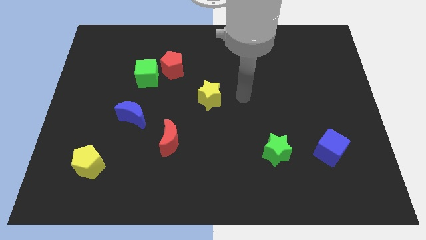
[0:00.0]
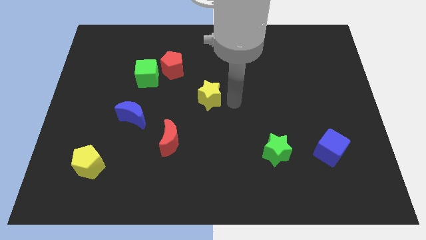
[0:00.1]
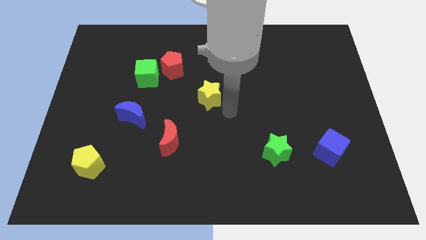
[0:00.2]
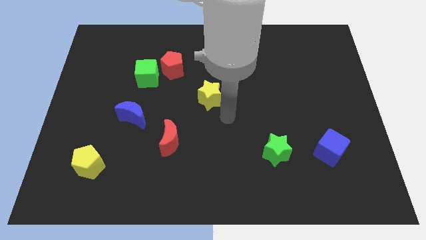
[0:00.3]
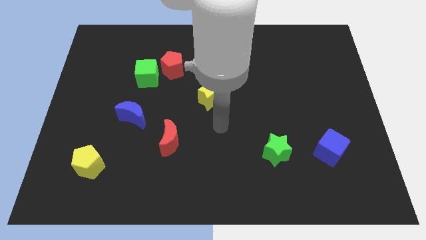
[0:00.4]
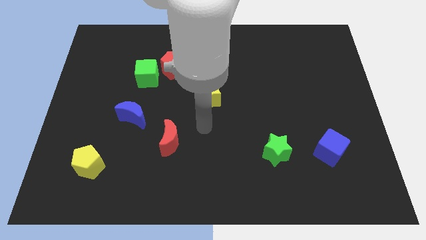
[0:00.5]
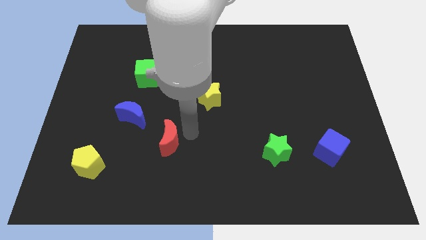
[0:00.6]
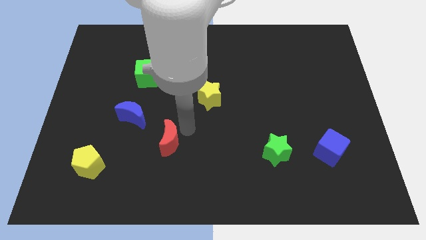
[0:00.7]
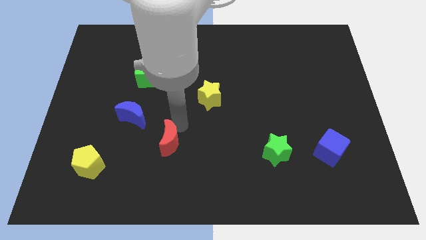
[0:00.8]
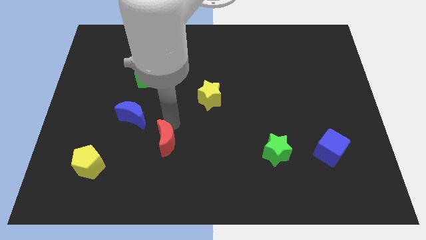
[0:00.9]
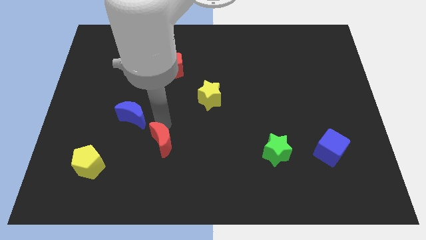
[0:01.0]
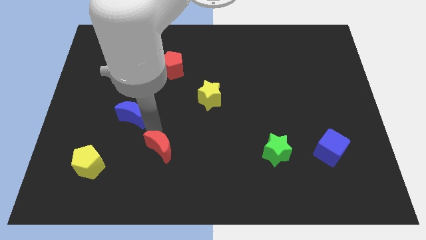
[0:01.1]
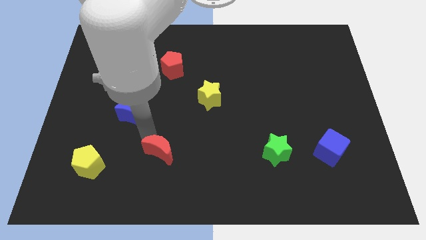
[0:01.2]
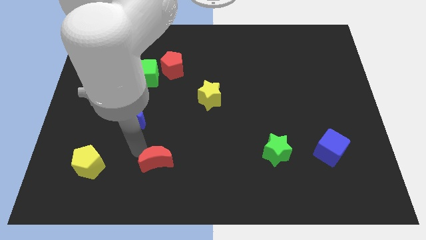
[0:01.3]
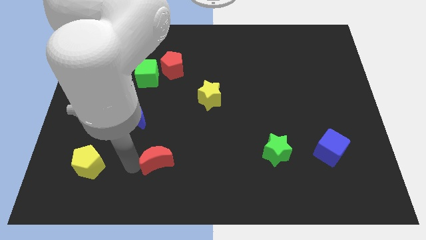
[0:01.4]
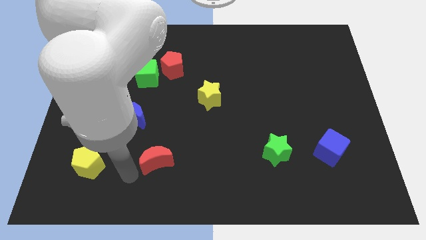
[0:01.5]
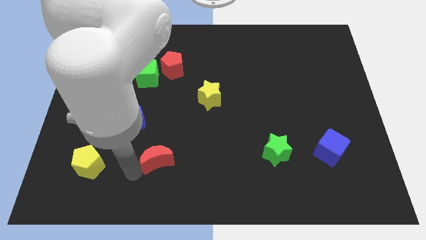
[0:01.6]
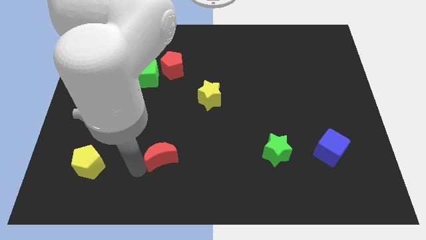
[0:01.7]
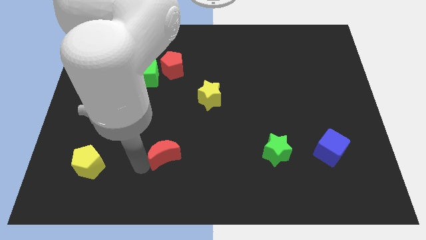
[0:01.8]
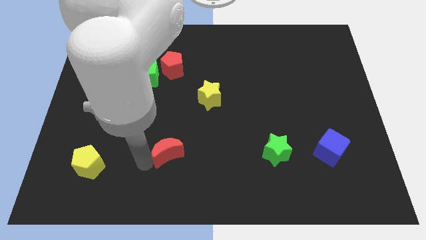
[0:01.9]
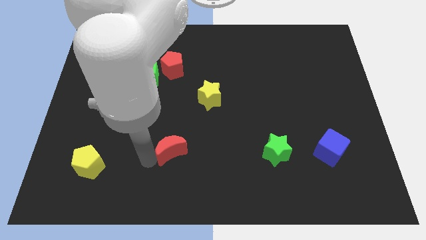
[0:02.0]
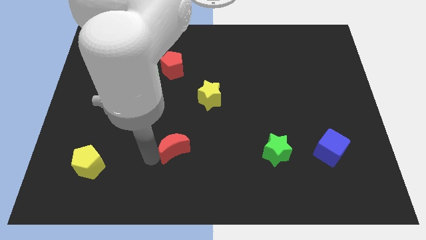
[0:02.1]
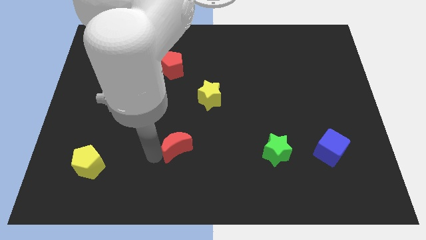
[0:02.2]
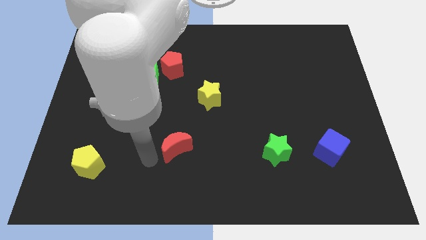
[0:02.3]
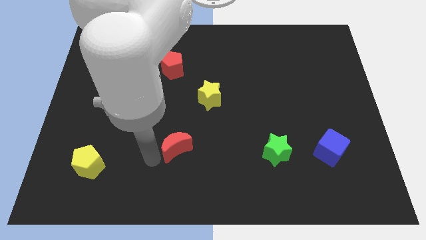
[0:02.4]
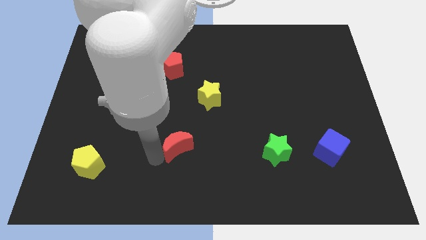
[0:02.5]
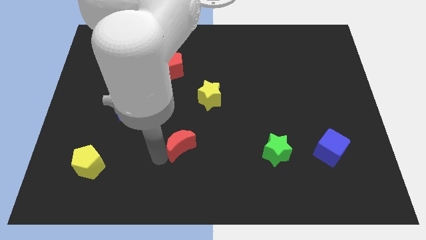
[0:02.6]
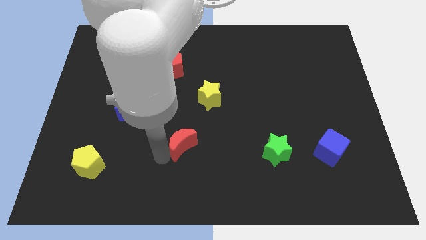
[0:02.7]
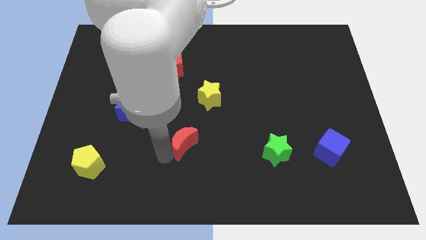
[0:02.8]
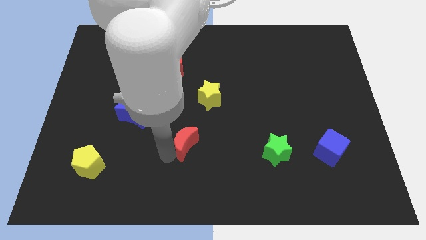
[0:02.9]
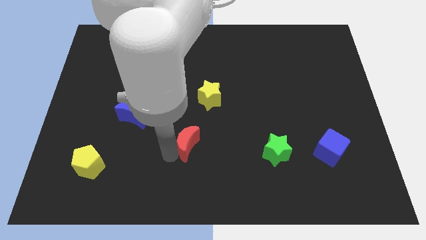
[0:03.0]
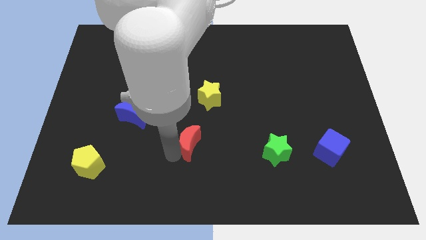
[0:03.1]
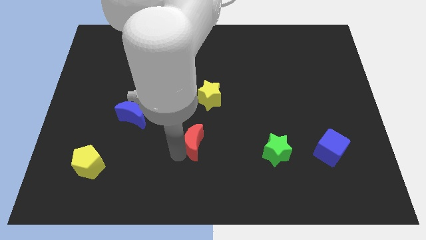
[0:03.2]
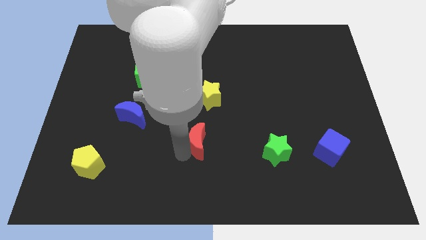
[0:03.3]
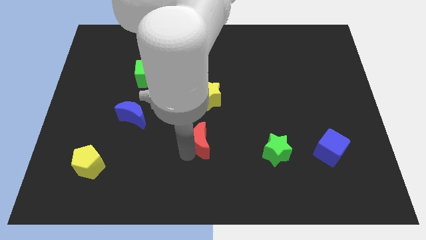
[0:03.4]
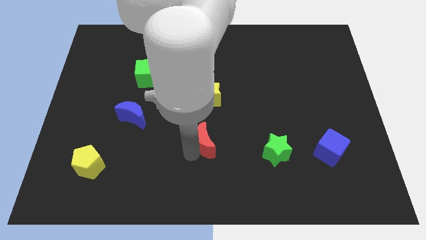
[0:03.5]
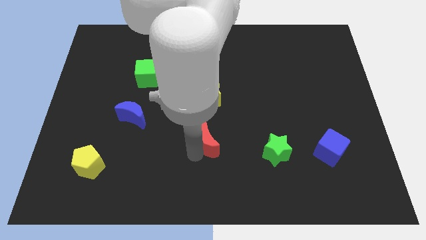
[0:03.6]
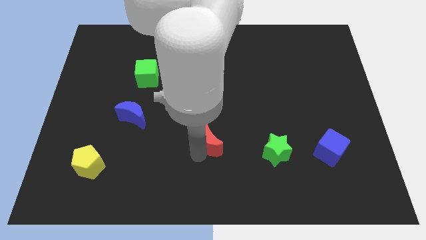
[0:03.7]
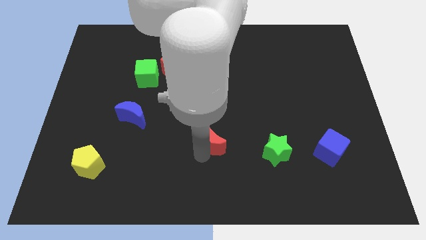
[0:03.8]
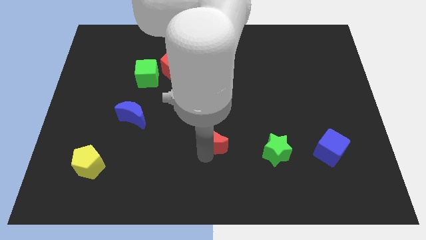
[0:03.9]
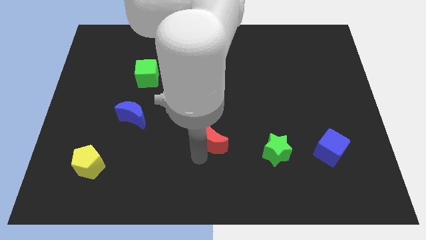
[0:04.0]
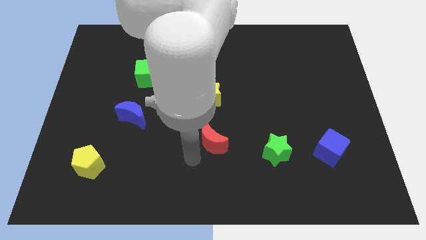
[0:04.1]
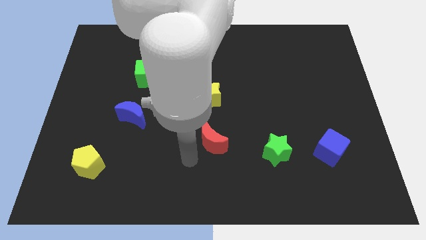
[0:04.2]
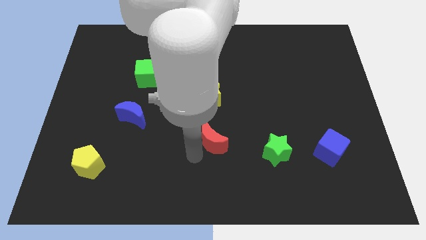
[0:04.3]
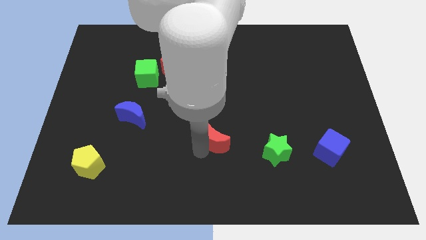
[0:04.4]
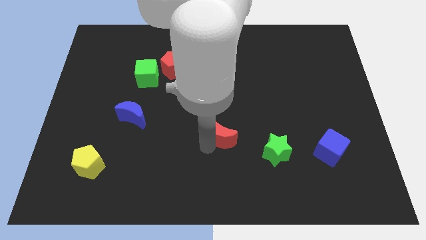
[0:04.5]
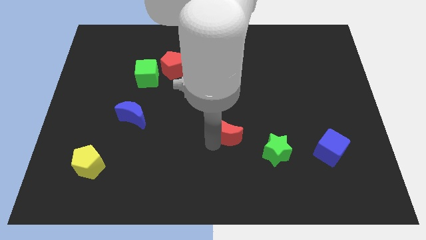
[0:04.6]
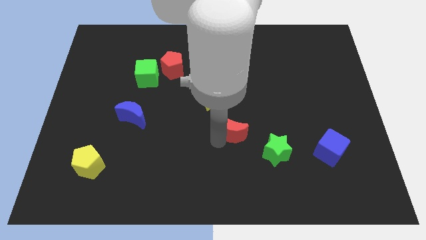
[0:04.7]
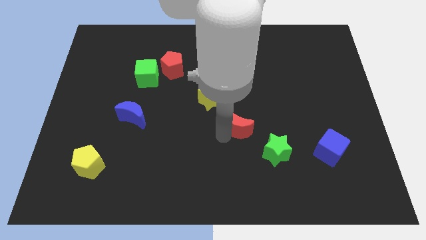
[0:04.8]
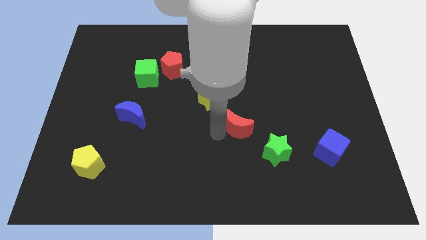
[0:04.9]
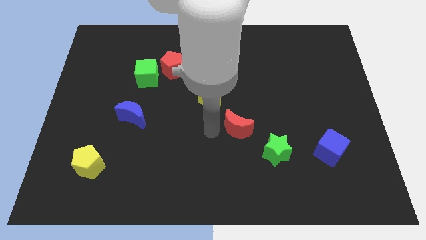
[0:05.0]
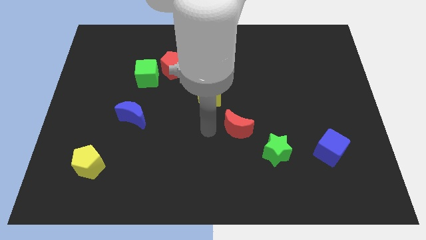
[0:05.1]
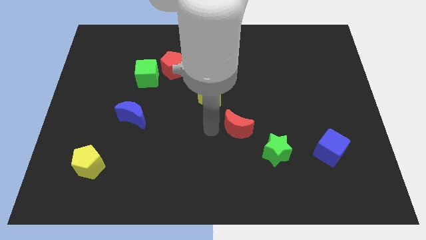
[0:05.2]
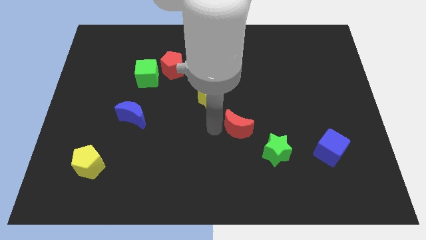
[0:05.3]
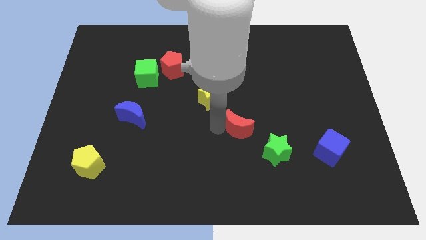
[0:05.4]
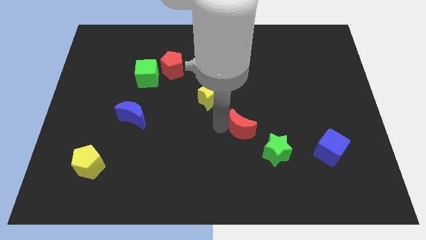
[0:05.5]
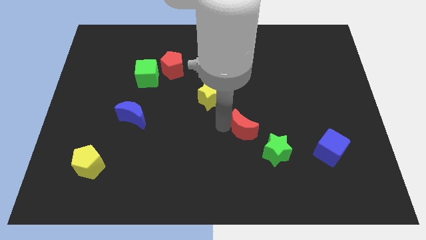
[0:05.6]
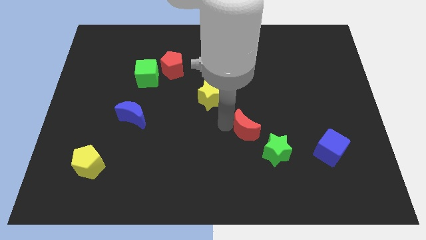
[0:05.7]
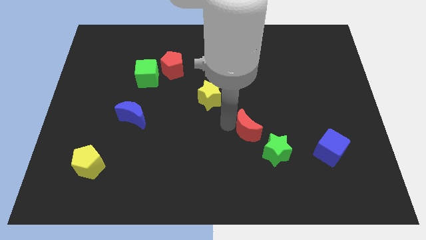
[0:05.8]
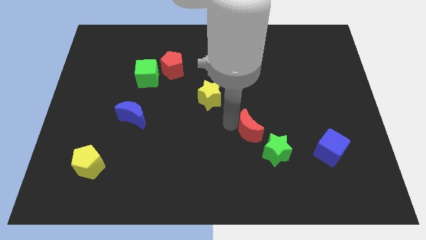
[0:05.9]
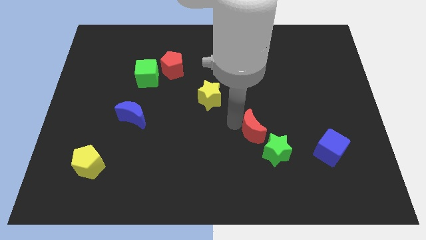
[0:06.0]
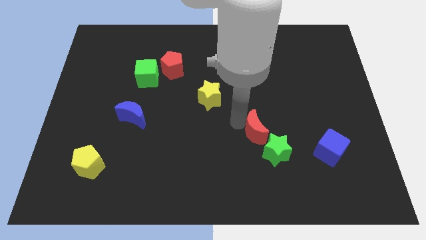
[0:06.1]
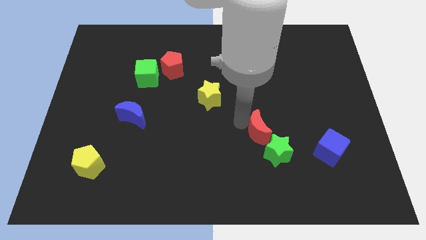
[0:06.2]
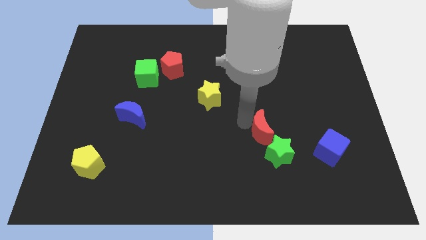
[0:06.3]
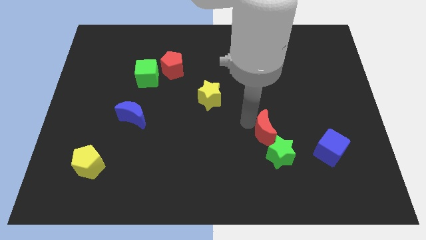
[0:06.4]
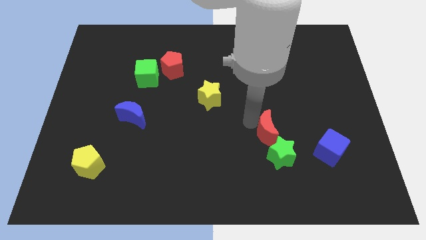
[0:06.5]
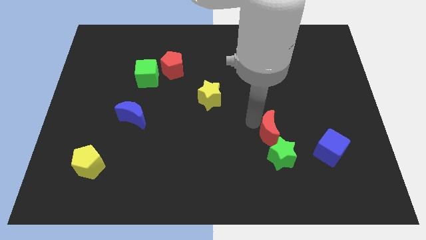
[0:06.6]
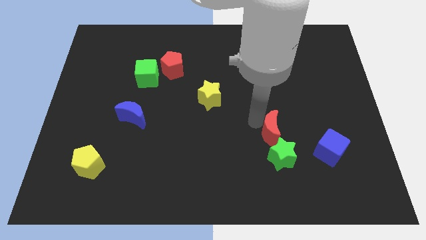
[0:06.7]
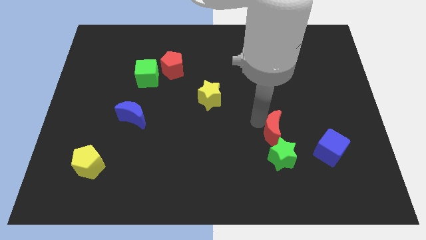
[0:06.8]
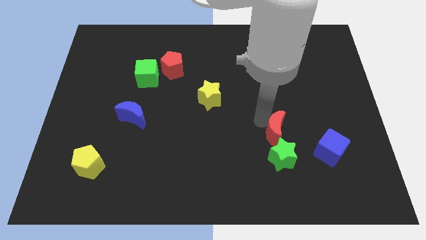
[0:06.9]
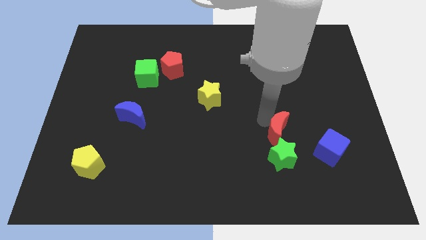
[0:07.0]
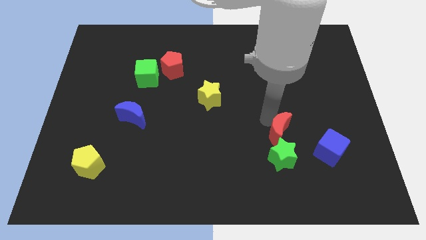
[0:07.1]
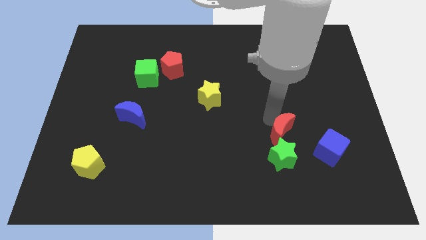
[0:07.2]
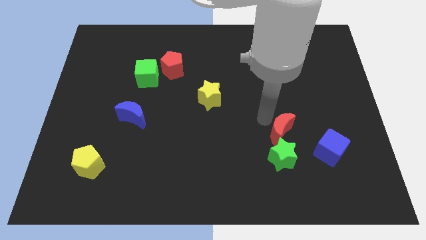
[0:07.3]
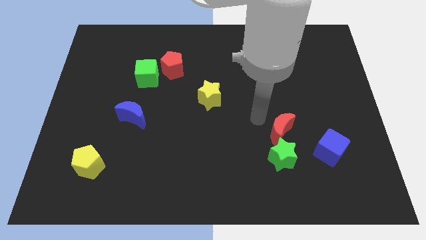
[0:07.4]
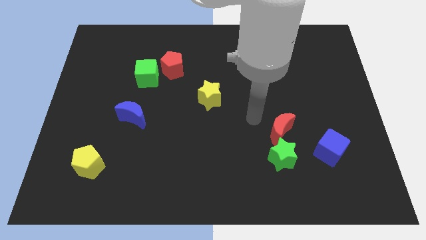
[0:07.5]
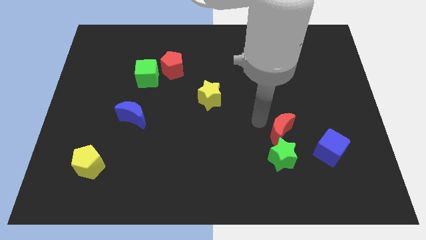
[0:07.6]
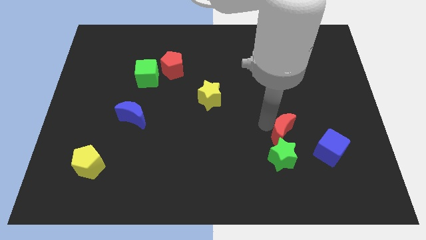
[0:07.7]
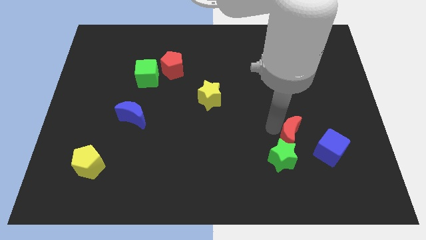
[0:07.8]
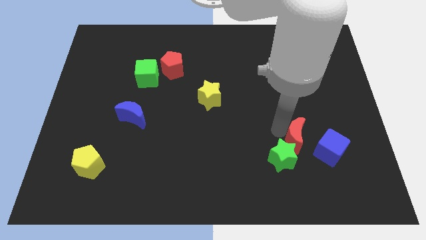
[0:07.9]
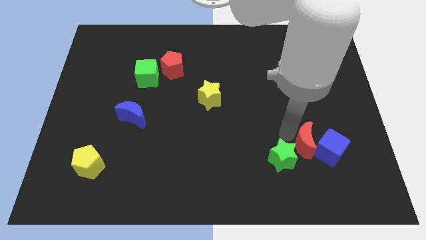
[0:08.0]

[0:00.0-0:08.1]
put the red moon next to the blue cube
